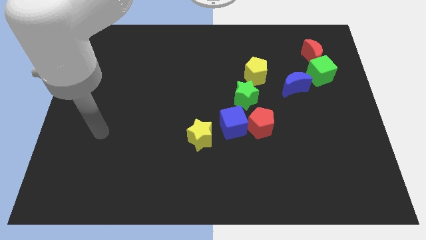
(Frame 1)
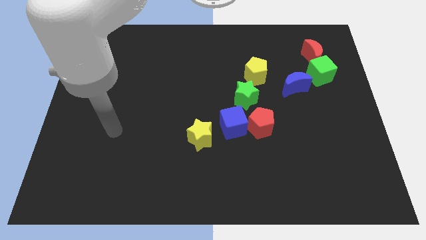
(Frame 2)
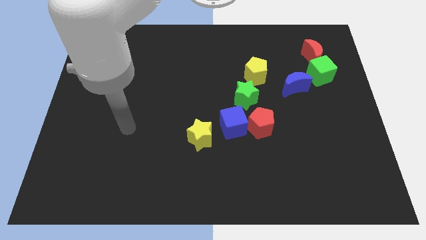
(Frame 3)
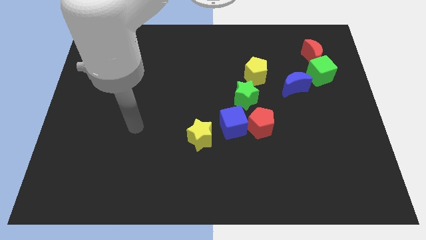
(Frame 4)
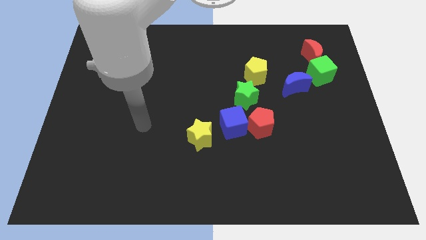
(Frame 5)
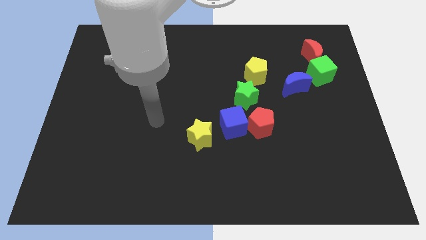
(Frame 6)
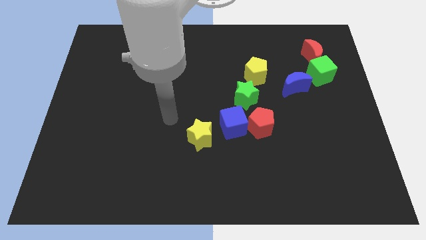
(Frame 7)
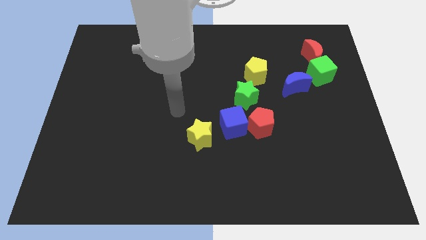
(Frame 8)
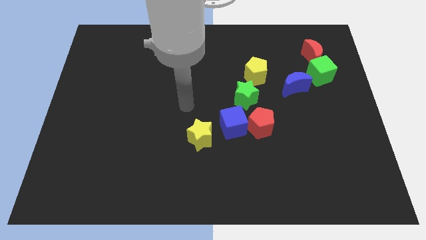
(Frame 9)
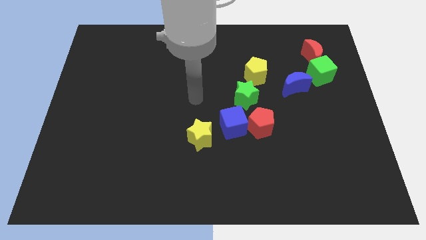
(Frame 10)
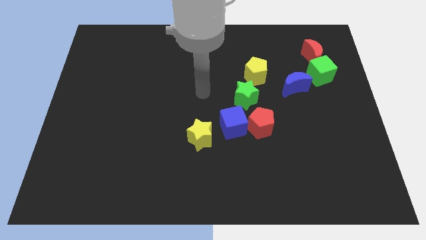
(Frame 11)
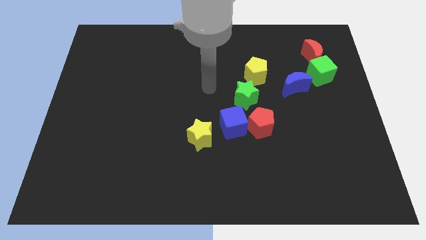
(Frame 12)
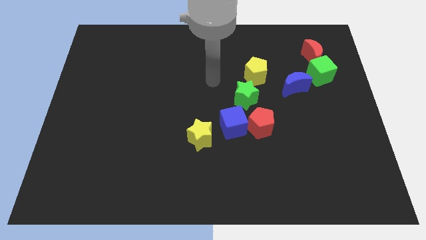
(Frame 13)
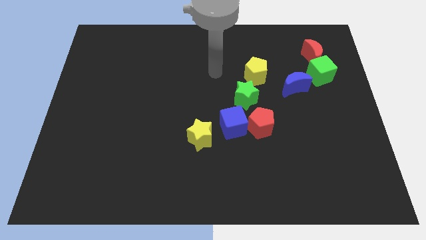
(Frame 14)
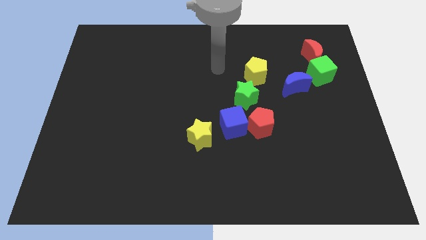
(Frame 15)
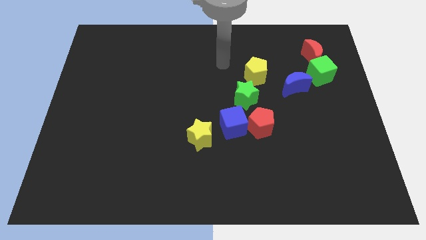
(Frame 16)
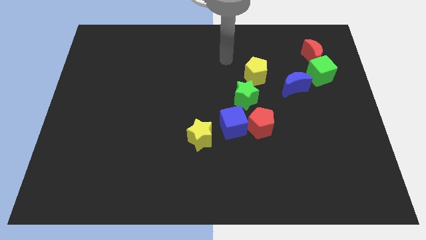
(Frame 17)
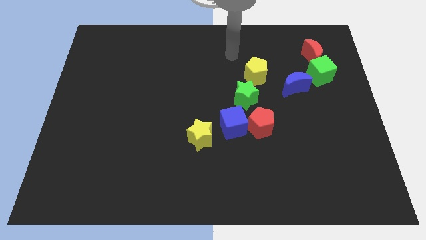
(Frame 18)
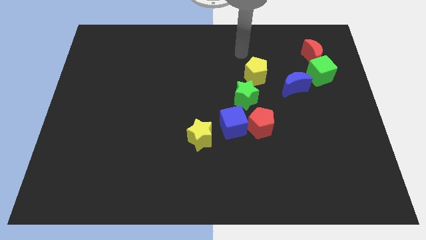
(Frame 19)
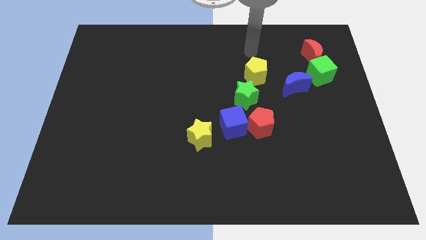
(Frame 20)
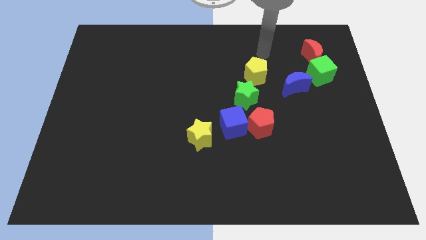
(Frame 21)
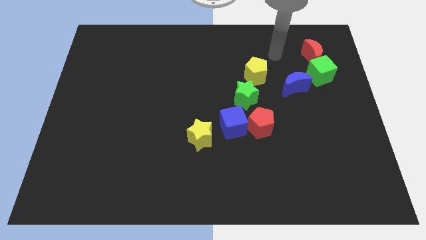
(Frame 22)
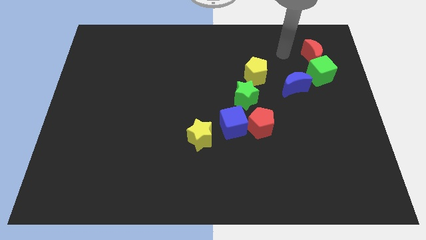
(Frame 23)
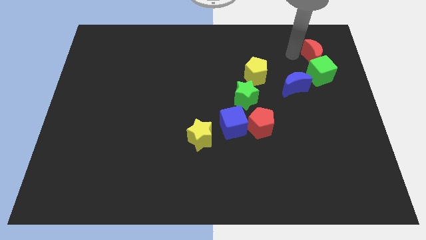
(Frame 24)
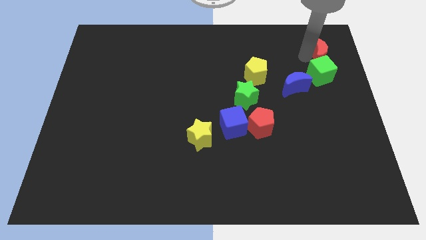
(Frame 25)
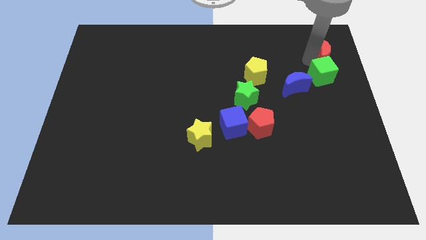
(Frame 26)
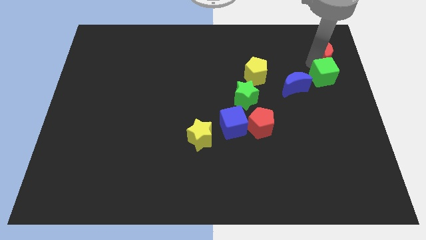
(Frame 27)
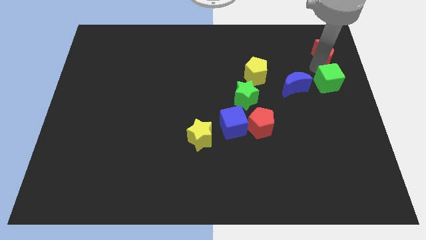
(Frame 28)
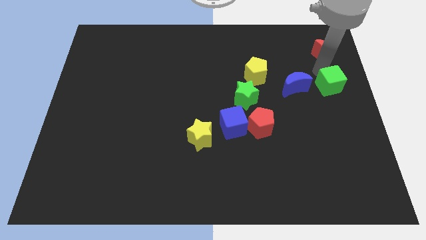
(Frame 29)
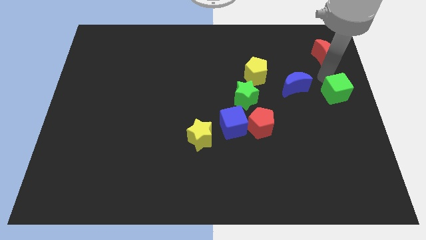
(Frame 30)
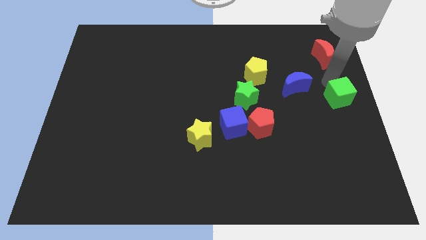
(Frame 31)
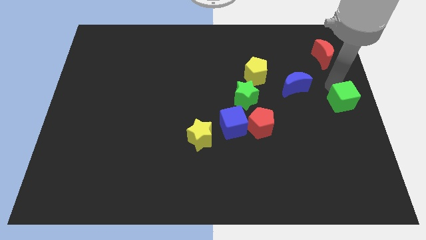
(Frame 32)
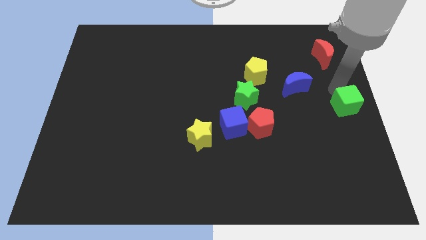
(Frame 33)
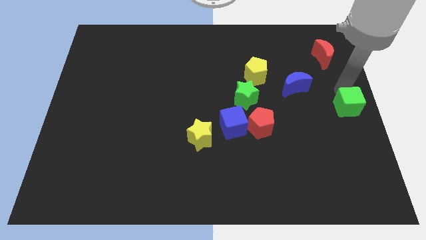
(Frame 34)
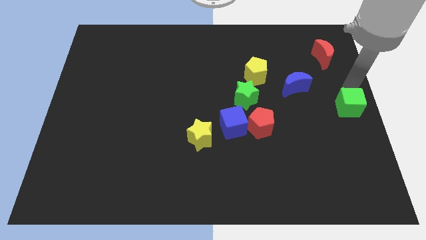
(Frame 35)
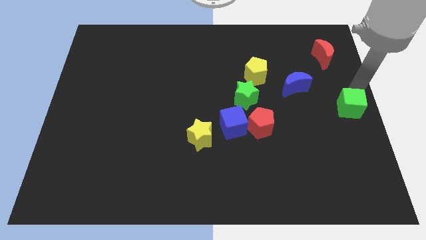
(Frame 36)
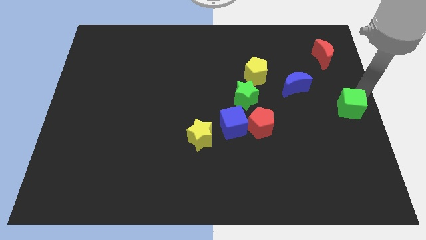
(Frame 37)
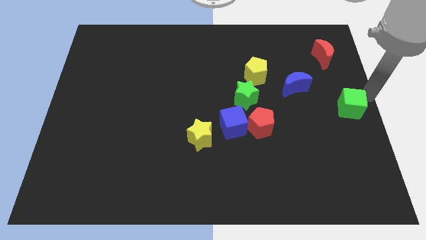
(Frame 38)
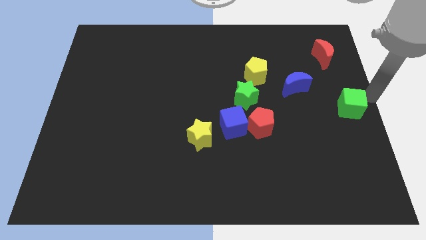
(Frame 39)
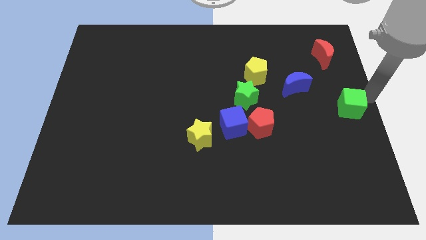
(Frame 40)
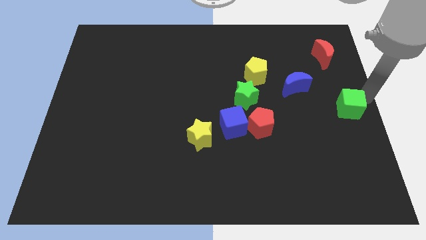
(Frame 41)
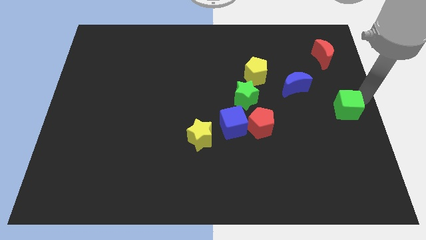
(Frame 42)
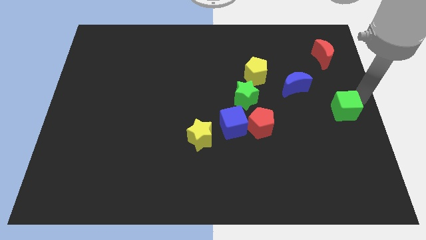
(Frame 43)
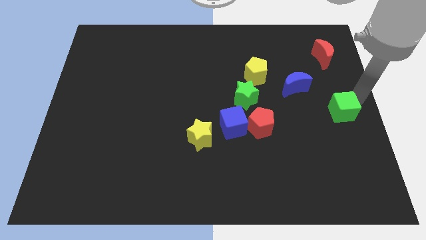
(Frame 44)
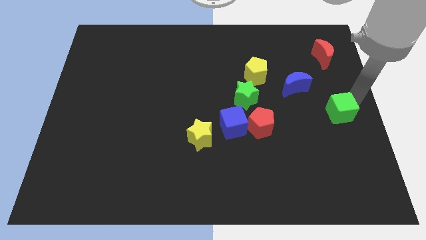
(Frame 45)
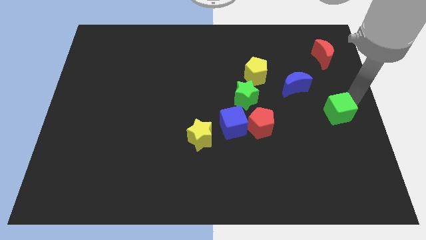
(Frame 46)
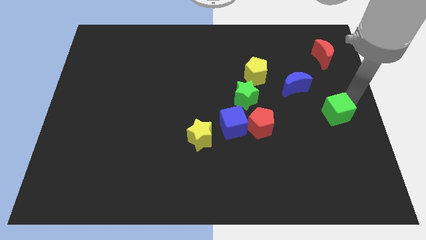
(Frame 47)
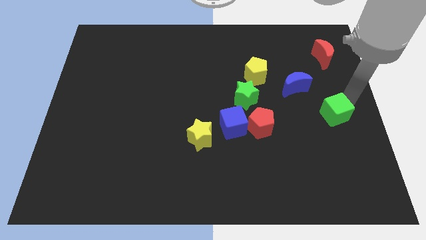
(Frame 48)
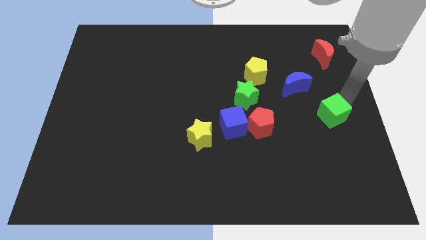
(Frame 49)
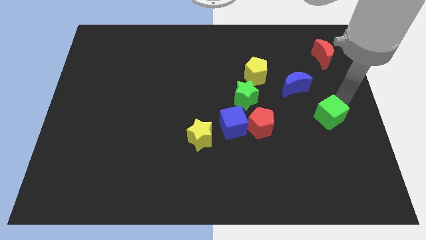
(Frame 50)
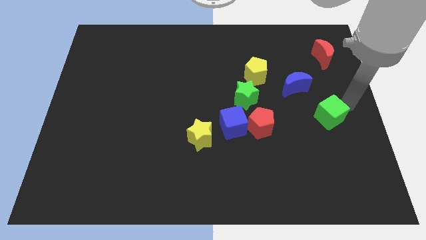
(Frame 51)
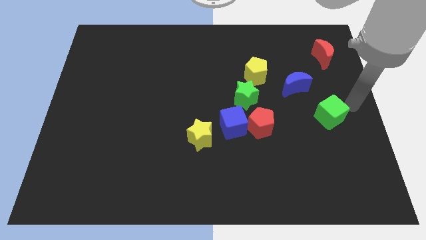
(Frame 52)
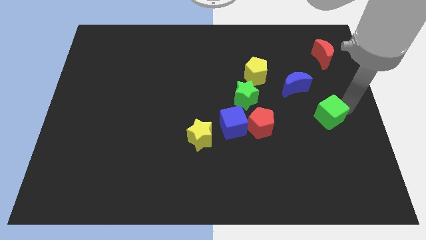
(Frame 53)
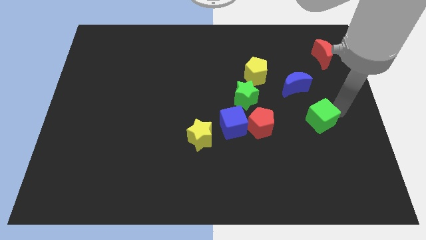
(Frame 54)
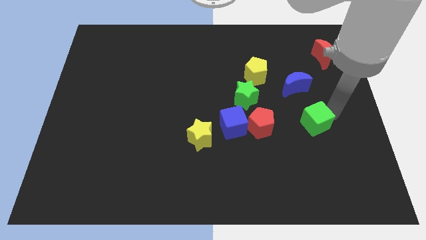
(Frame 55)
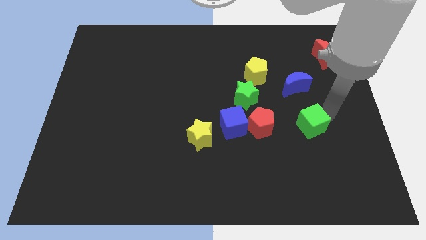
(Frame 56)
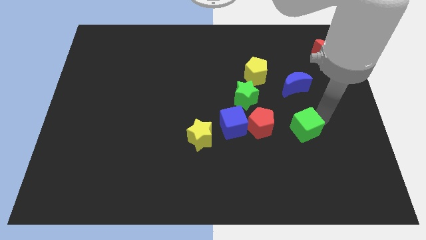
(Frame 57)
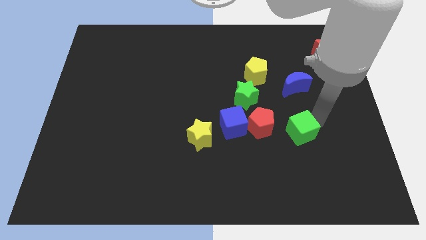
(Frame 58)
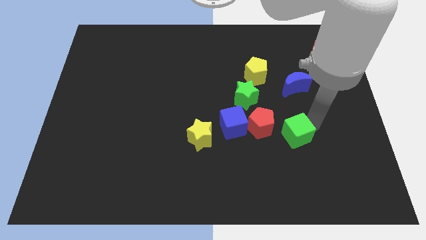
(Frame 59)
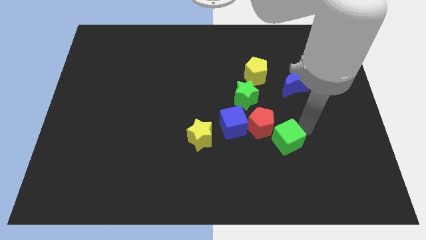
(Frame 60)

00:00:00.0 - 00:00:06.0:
move the green cube down and left

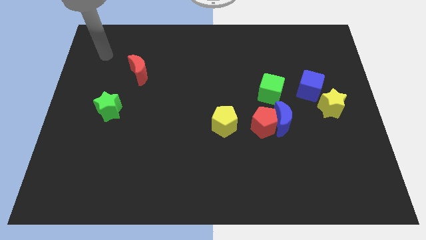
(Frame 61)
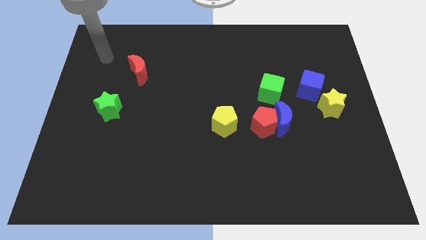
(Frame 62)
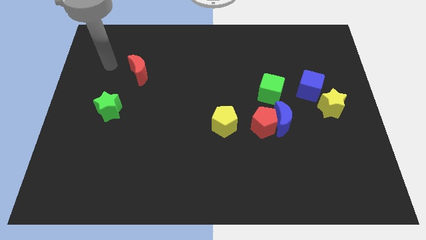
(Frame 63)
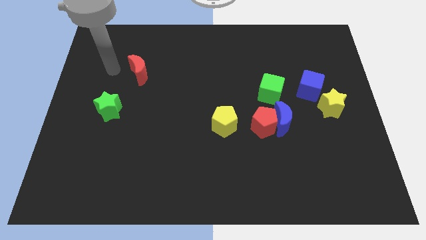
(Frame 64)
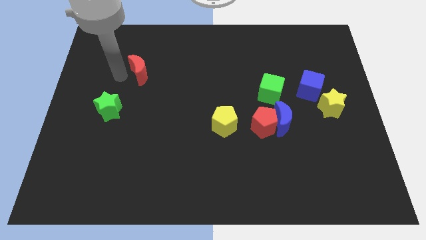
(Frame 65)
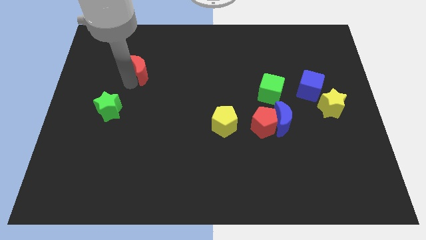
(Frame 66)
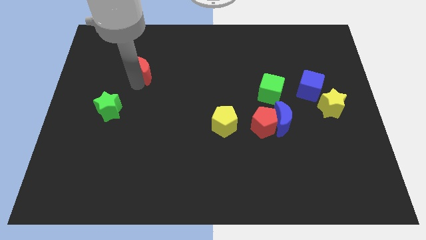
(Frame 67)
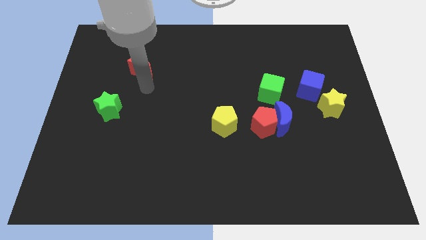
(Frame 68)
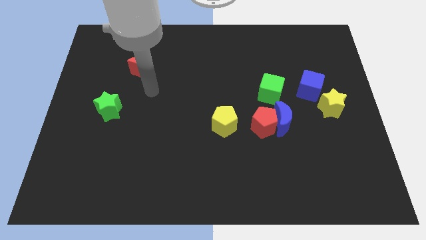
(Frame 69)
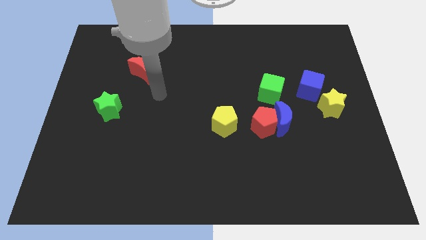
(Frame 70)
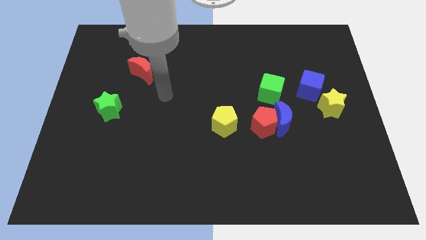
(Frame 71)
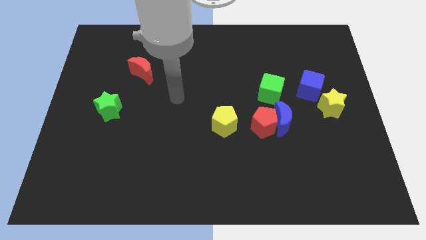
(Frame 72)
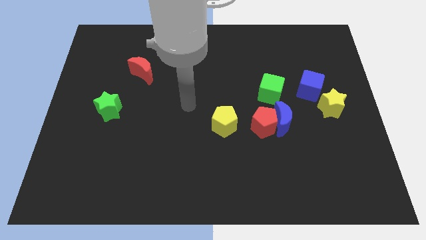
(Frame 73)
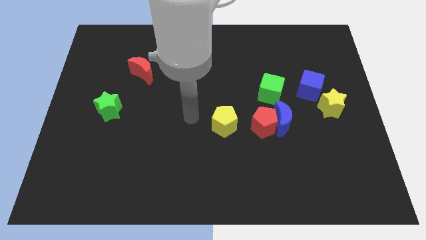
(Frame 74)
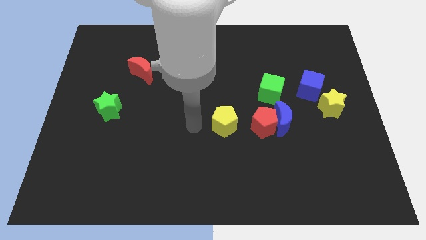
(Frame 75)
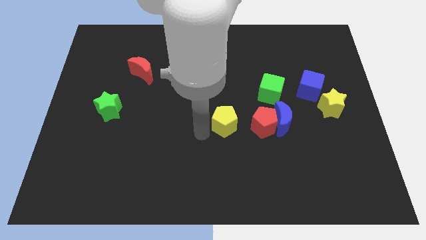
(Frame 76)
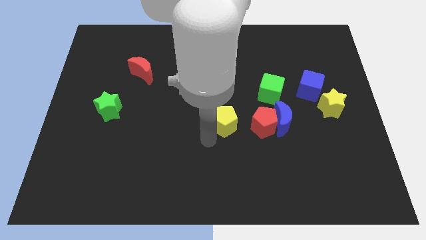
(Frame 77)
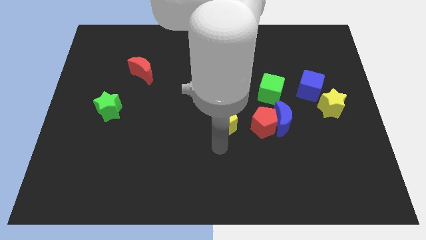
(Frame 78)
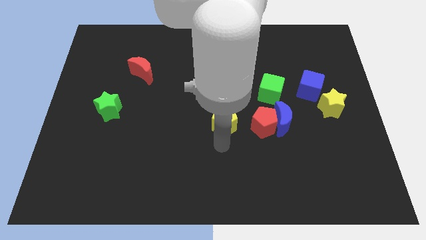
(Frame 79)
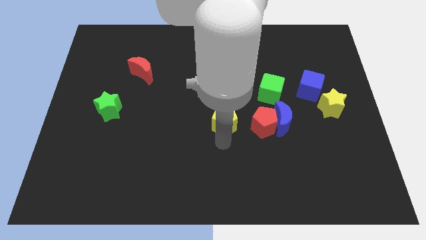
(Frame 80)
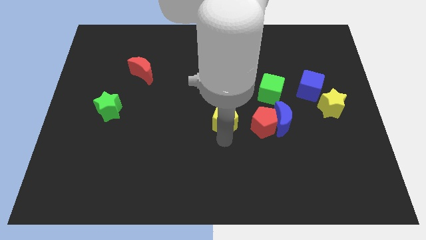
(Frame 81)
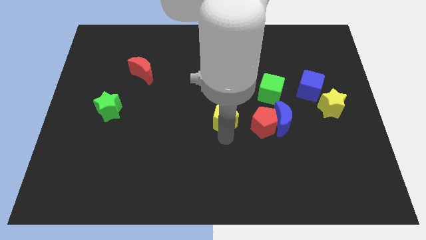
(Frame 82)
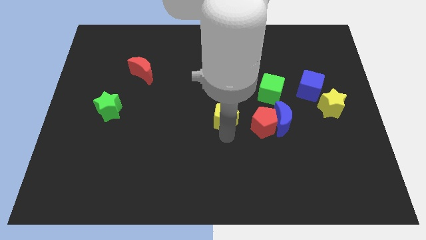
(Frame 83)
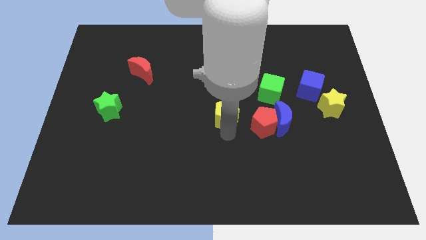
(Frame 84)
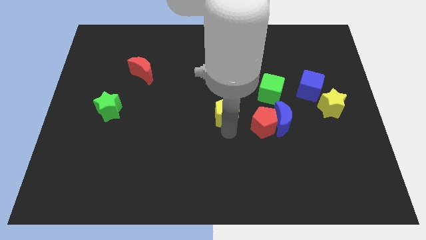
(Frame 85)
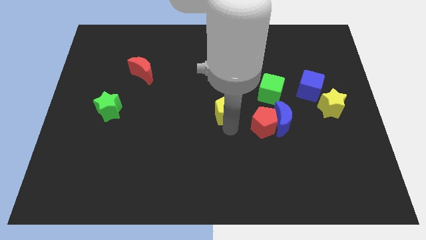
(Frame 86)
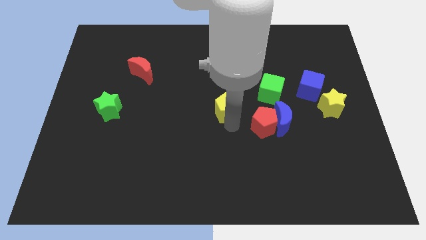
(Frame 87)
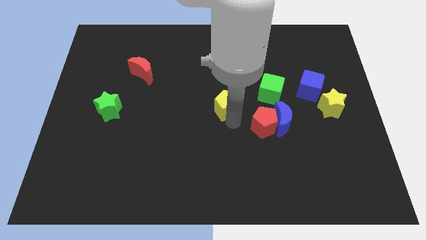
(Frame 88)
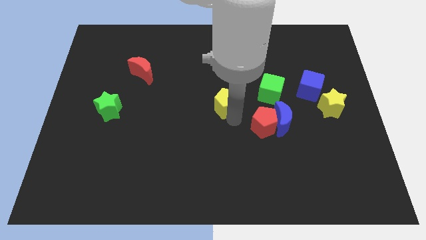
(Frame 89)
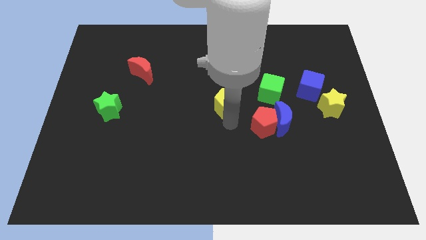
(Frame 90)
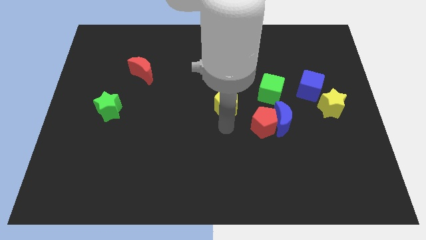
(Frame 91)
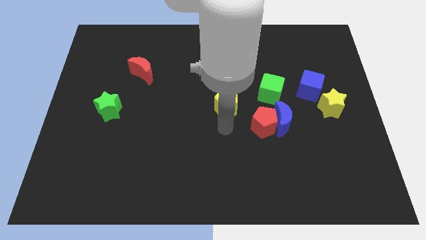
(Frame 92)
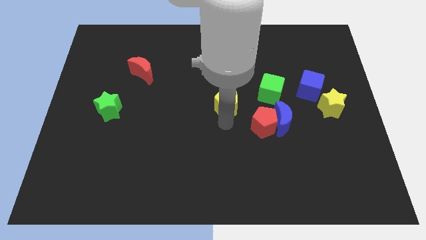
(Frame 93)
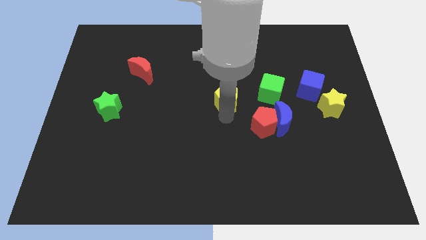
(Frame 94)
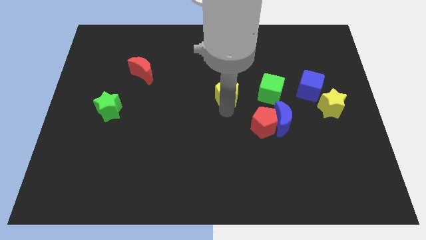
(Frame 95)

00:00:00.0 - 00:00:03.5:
slightly slide the yellow pentagon upwards
